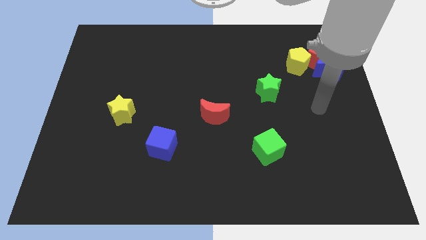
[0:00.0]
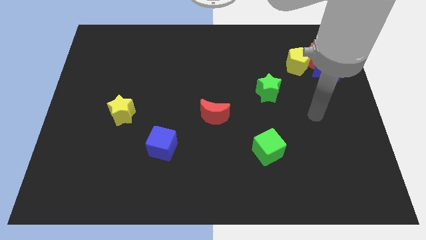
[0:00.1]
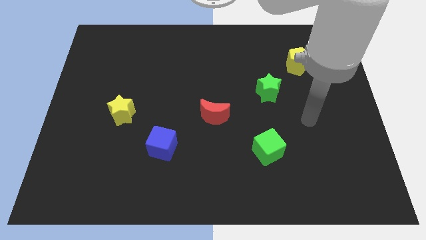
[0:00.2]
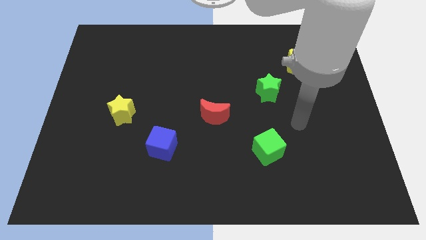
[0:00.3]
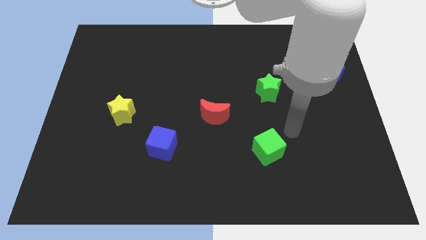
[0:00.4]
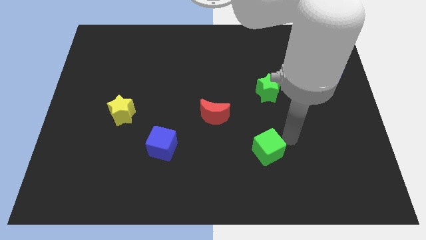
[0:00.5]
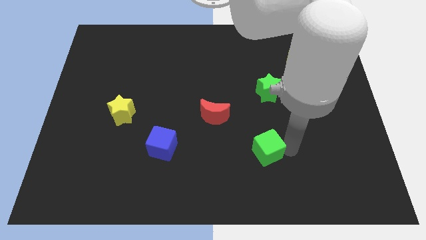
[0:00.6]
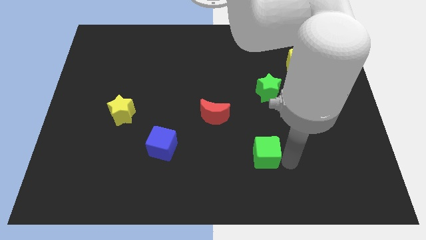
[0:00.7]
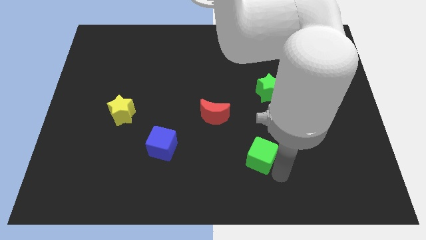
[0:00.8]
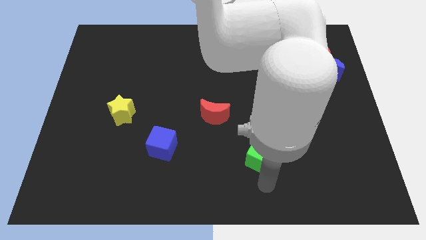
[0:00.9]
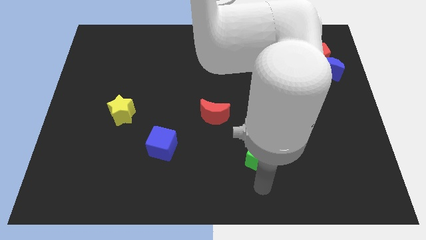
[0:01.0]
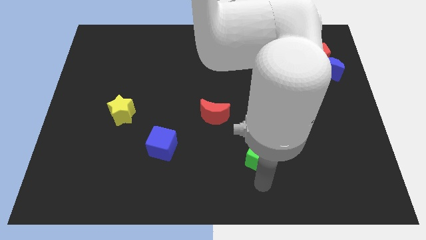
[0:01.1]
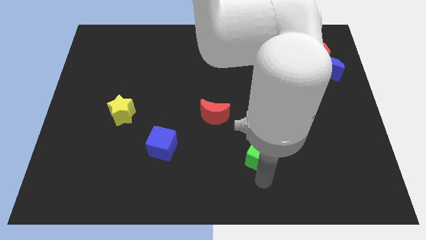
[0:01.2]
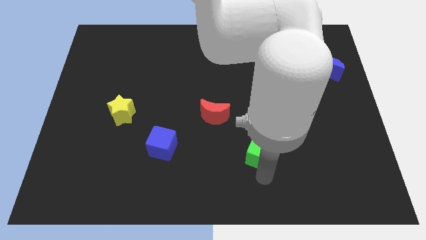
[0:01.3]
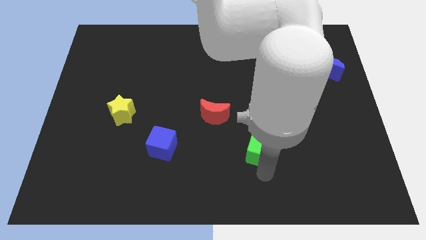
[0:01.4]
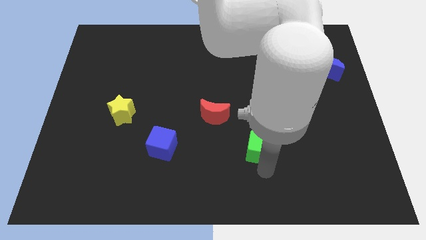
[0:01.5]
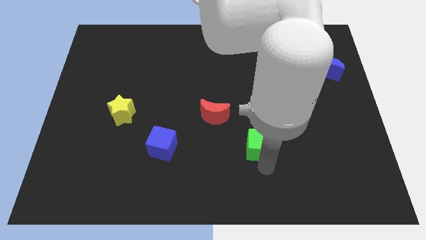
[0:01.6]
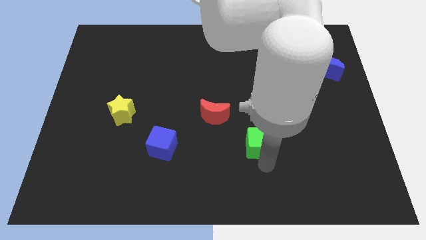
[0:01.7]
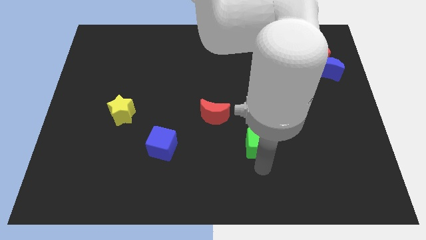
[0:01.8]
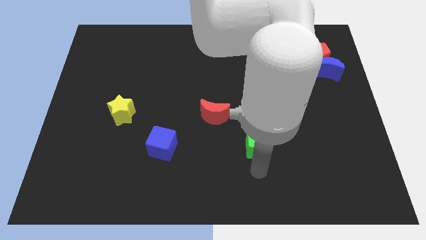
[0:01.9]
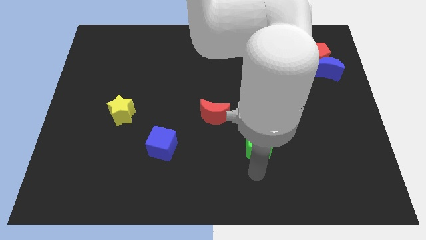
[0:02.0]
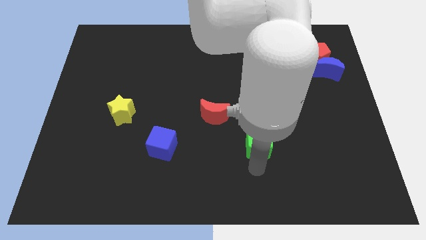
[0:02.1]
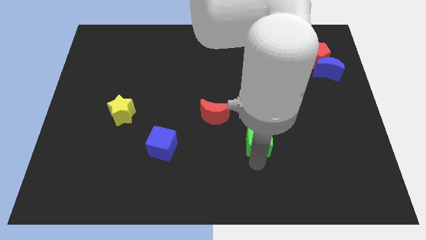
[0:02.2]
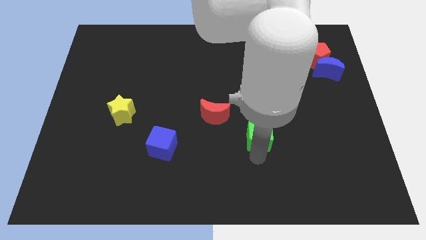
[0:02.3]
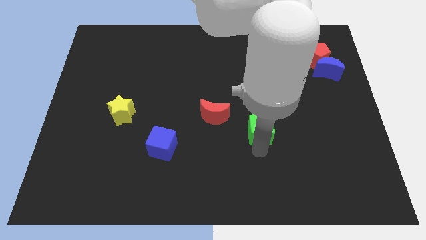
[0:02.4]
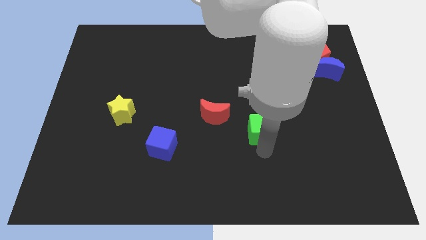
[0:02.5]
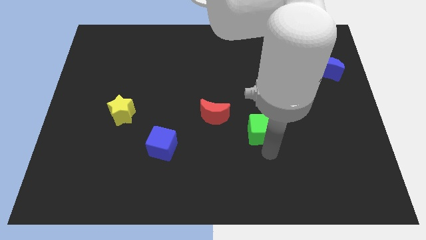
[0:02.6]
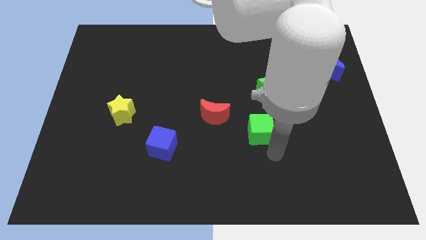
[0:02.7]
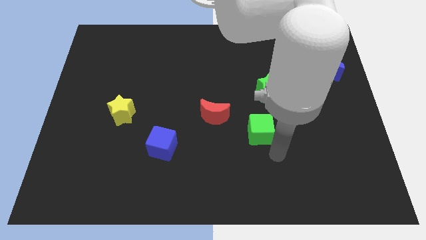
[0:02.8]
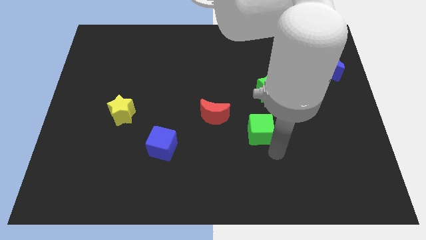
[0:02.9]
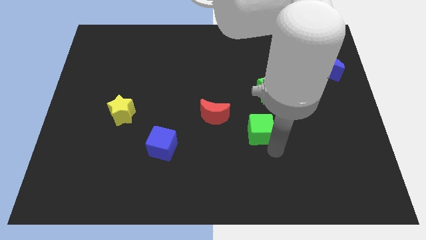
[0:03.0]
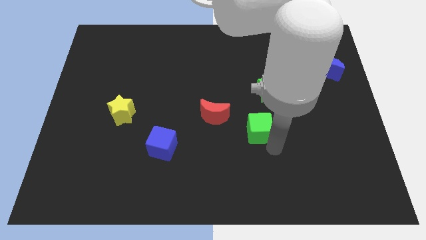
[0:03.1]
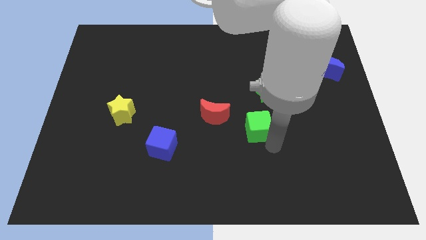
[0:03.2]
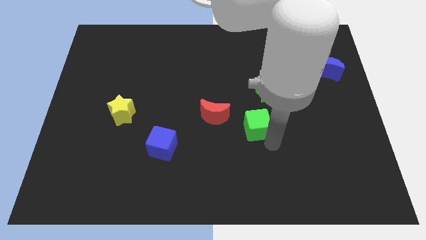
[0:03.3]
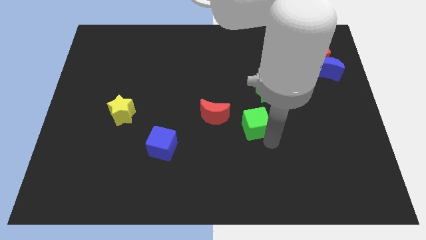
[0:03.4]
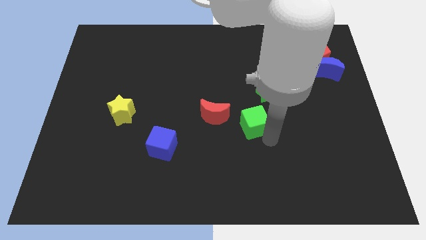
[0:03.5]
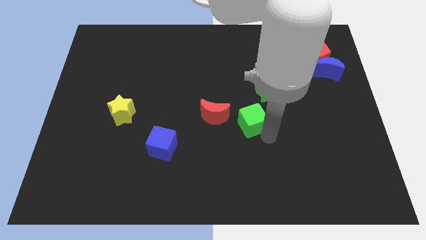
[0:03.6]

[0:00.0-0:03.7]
push the green cube diagonally up and left slightly

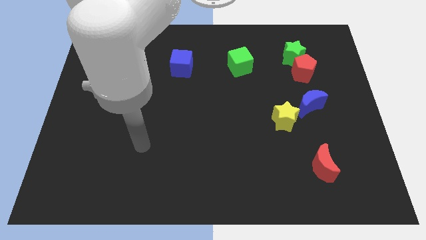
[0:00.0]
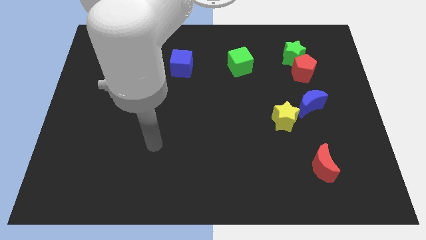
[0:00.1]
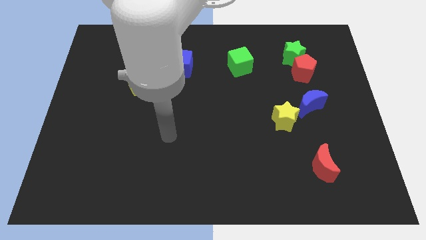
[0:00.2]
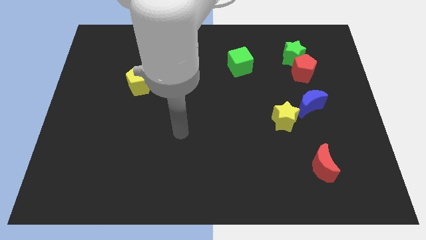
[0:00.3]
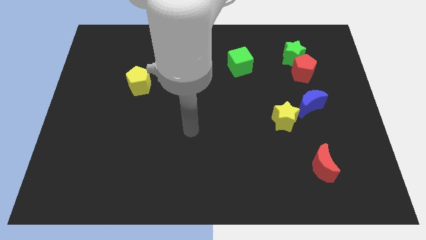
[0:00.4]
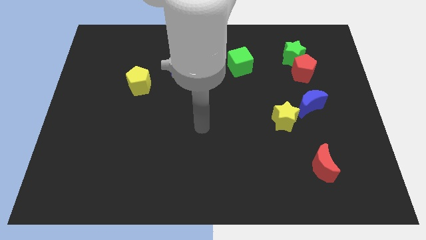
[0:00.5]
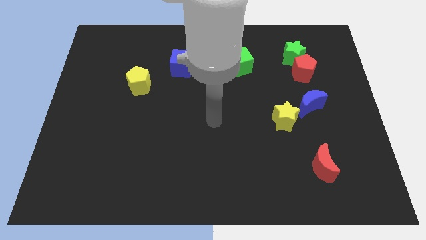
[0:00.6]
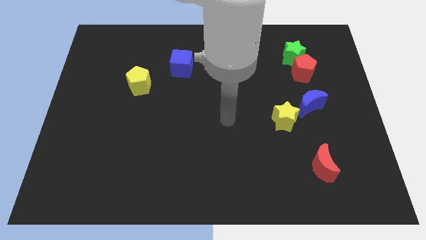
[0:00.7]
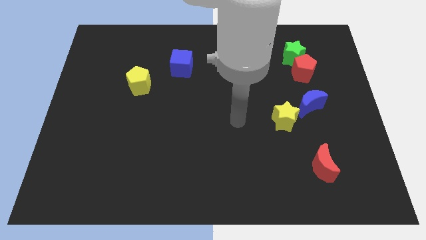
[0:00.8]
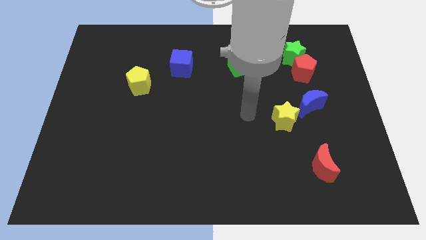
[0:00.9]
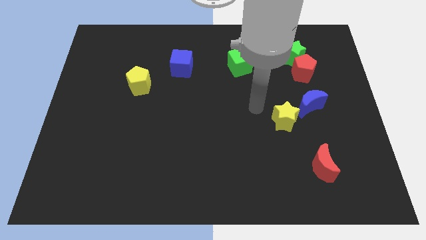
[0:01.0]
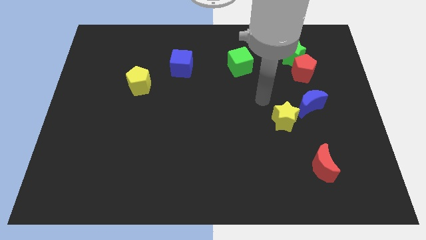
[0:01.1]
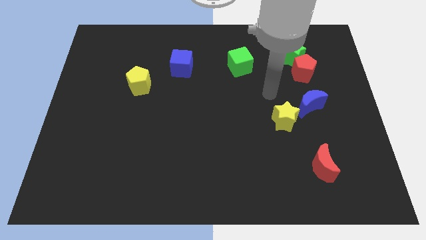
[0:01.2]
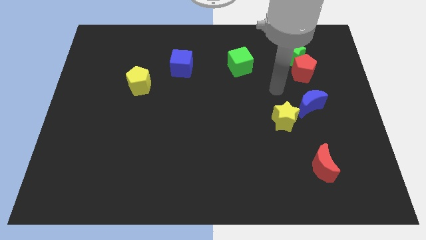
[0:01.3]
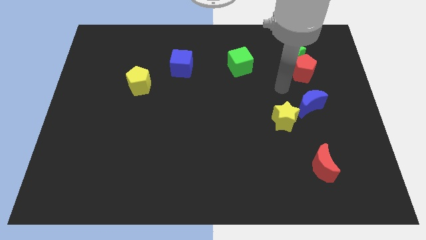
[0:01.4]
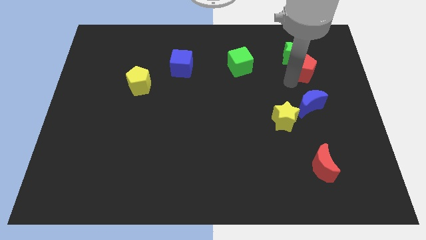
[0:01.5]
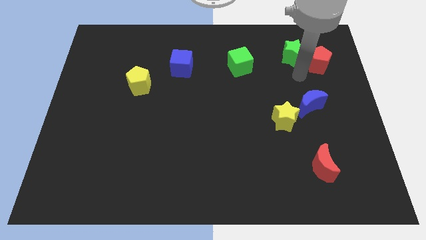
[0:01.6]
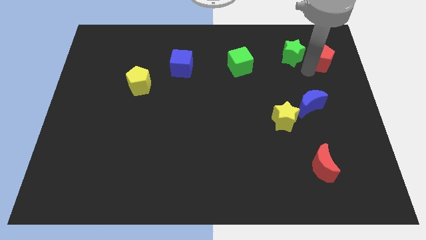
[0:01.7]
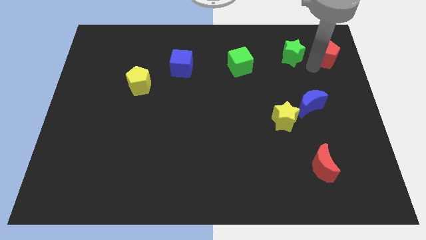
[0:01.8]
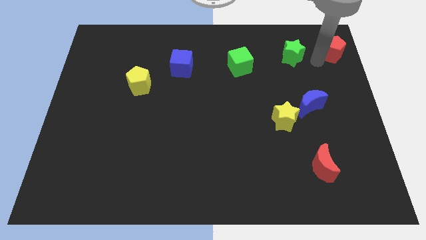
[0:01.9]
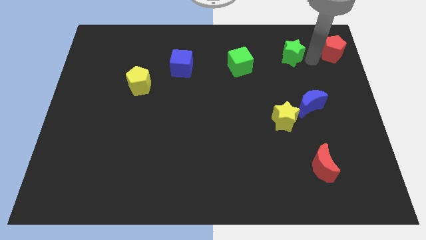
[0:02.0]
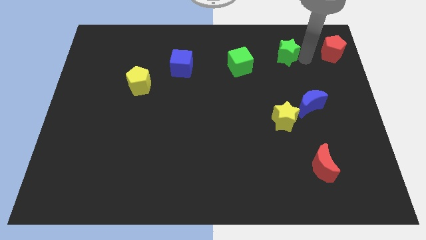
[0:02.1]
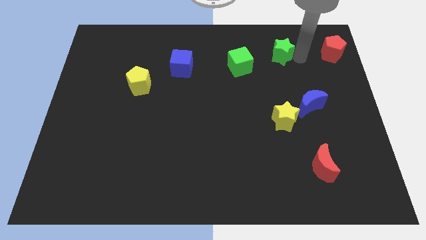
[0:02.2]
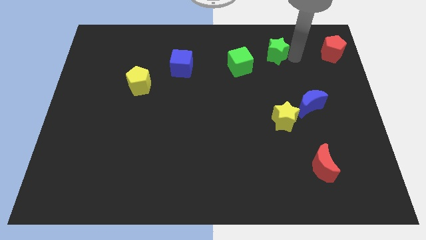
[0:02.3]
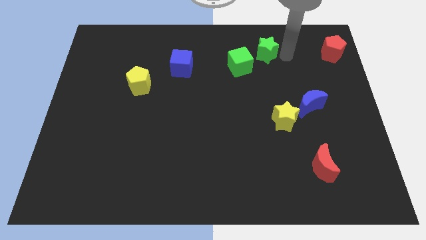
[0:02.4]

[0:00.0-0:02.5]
slide the green star slightly left

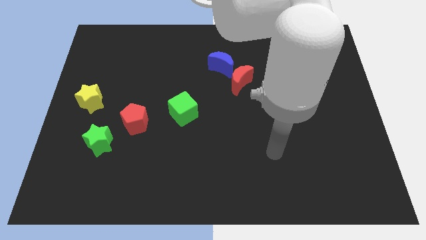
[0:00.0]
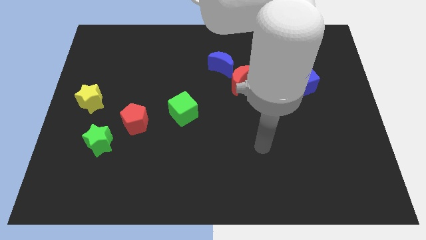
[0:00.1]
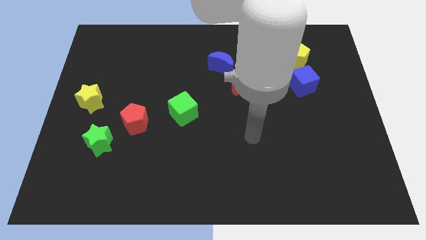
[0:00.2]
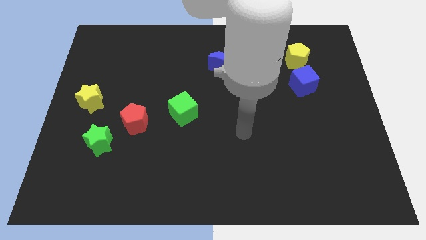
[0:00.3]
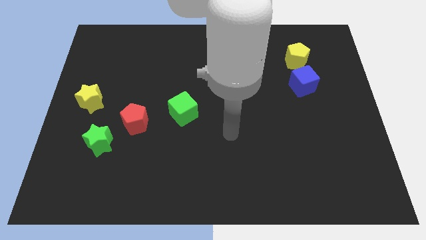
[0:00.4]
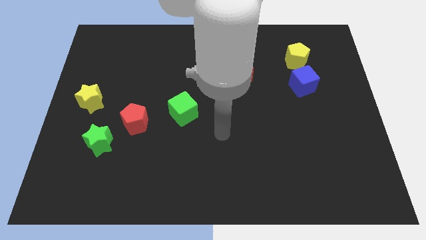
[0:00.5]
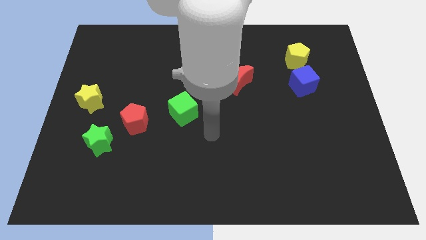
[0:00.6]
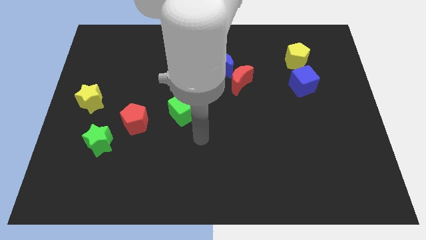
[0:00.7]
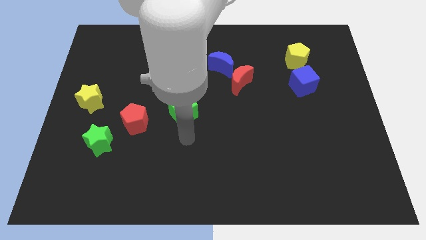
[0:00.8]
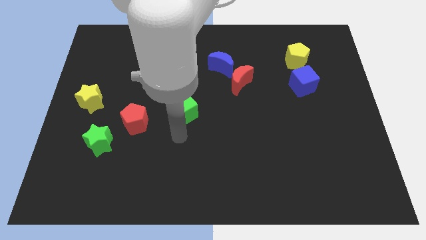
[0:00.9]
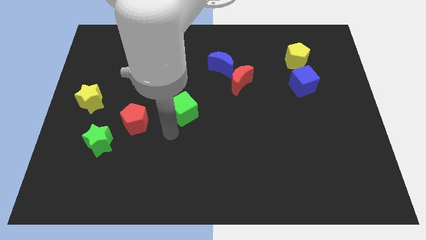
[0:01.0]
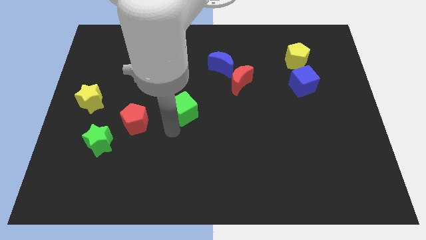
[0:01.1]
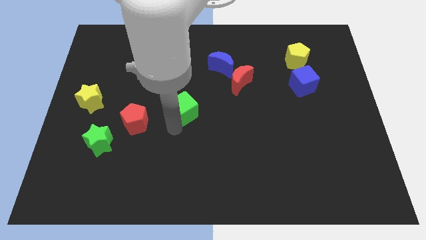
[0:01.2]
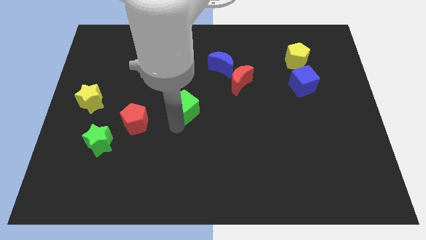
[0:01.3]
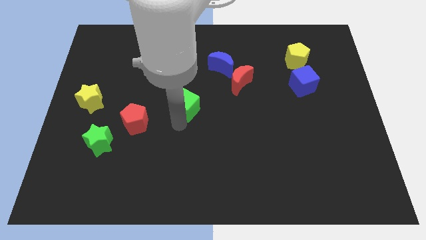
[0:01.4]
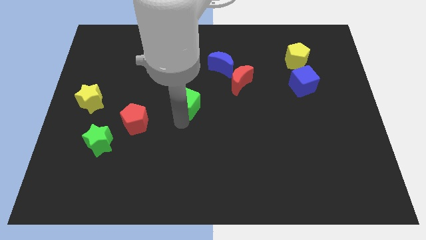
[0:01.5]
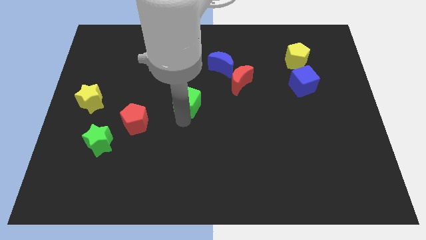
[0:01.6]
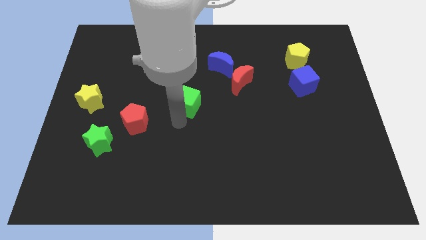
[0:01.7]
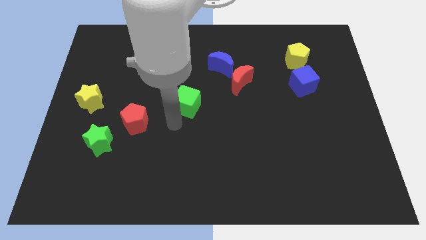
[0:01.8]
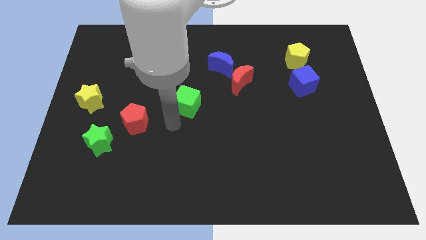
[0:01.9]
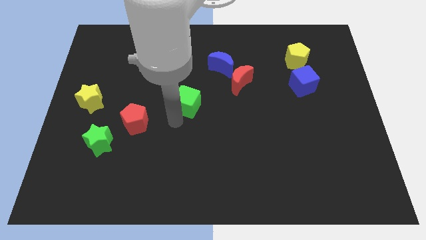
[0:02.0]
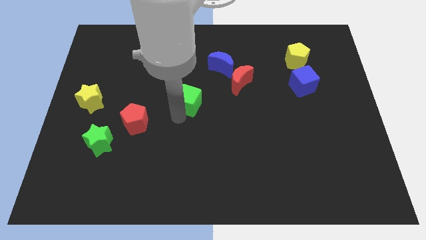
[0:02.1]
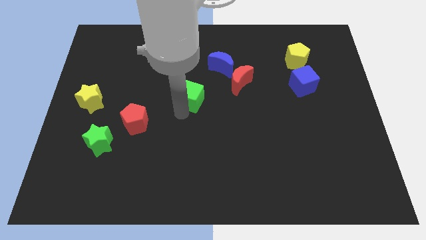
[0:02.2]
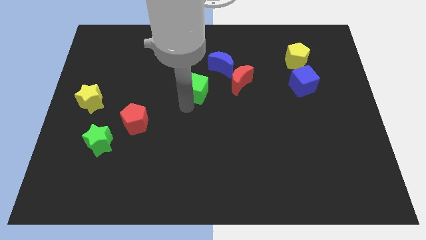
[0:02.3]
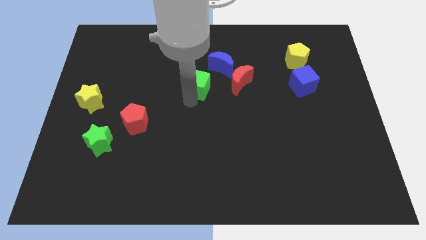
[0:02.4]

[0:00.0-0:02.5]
move the green cube up and to the right a little
